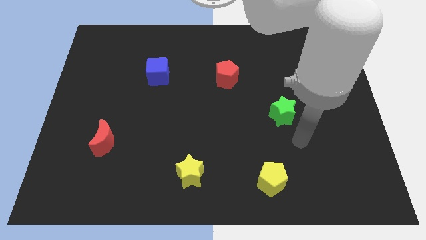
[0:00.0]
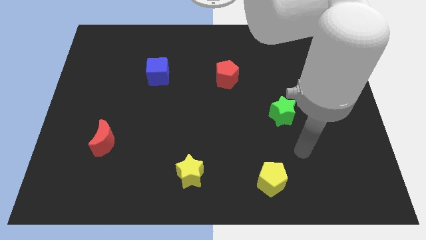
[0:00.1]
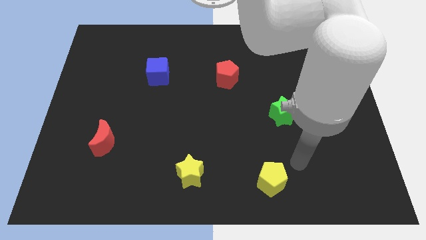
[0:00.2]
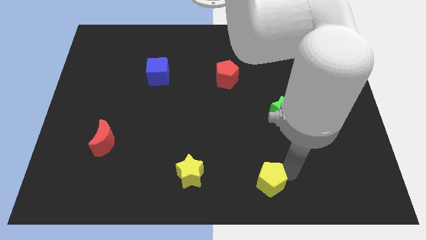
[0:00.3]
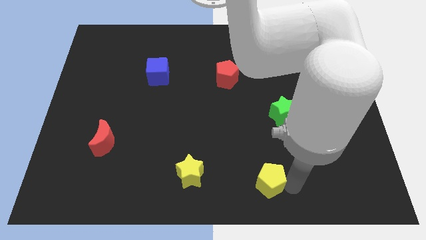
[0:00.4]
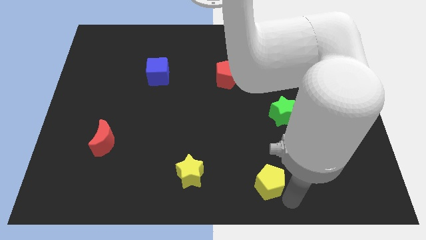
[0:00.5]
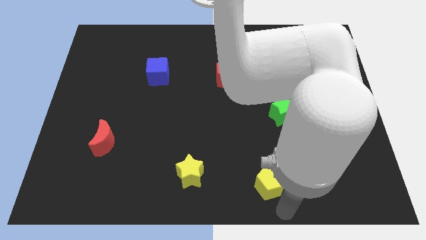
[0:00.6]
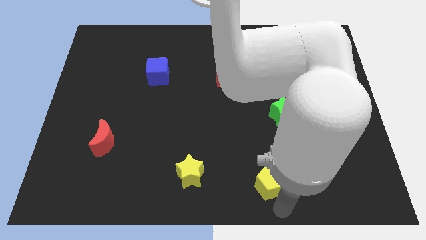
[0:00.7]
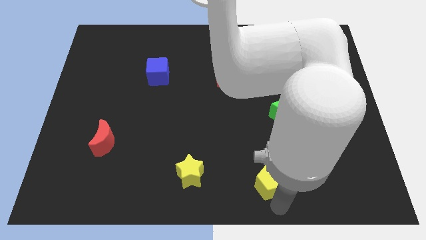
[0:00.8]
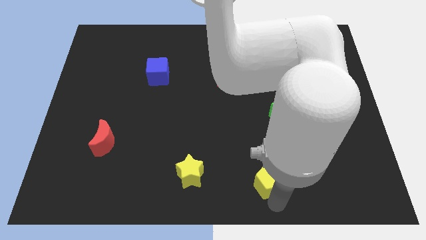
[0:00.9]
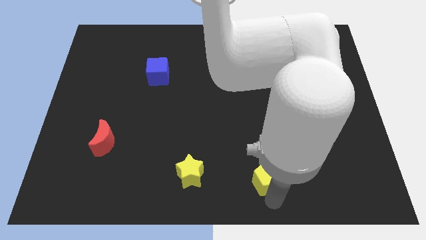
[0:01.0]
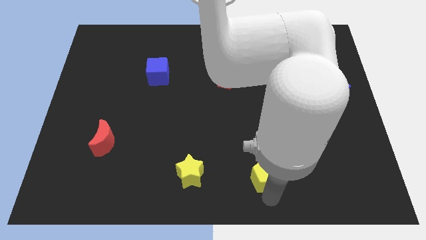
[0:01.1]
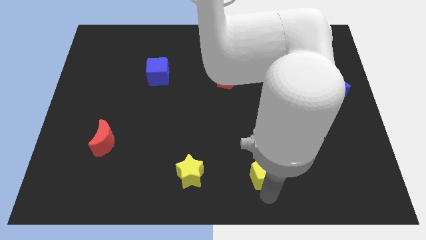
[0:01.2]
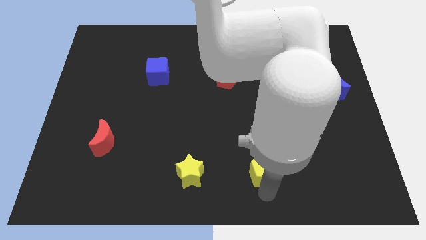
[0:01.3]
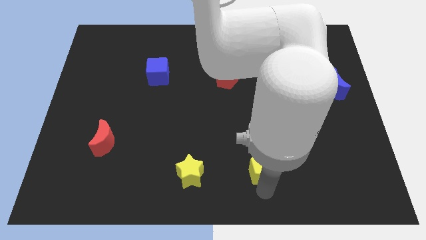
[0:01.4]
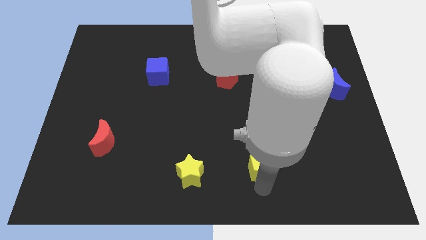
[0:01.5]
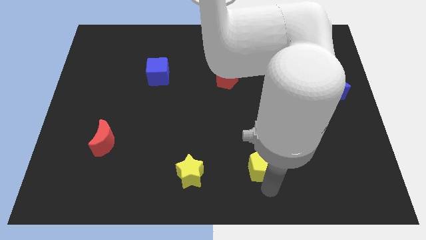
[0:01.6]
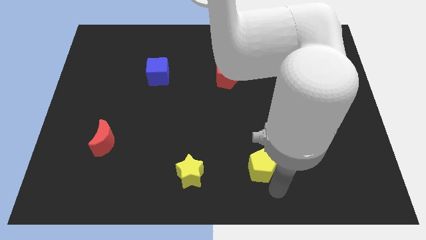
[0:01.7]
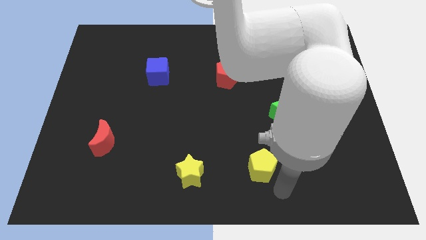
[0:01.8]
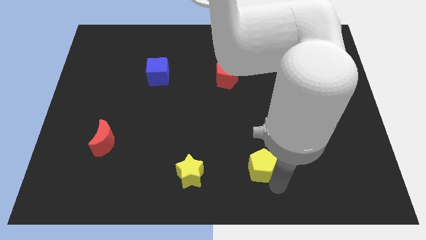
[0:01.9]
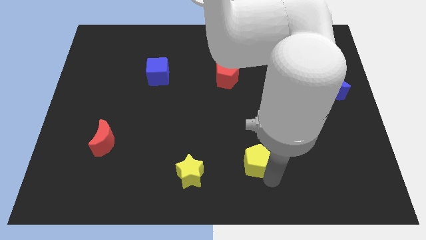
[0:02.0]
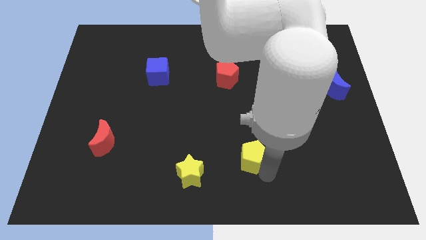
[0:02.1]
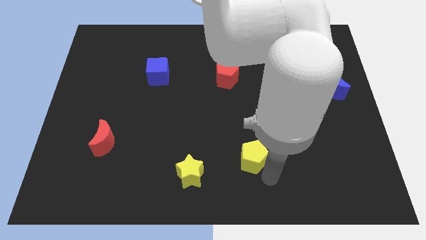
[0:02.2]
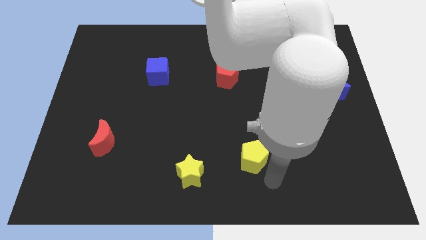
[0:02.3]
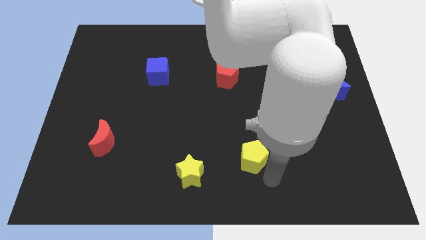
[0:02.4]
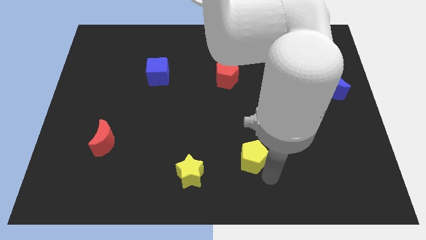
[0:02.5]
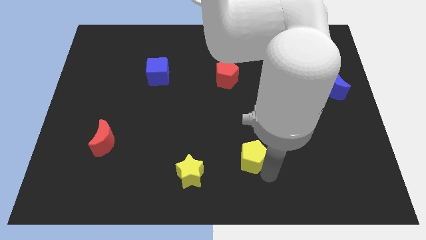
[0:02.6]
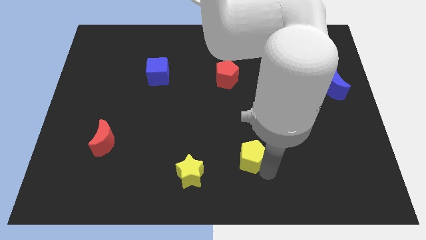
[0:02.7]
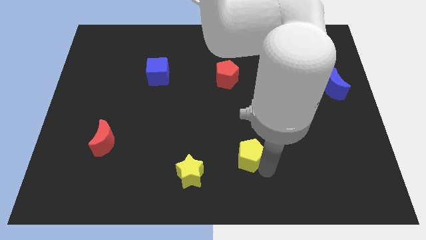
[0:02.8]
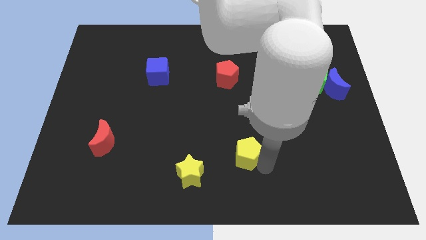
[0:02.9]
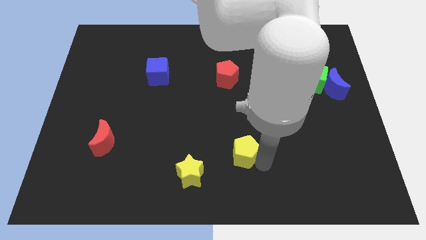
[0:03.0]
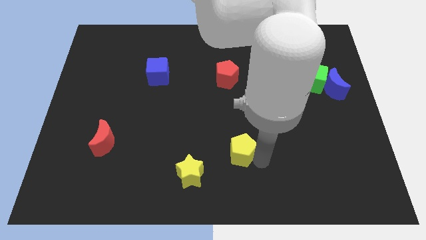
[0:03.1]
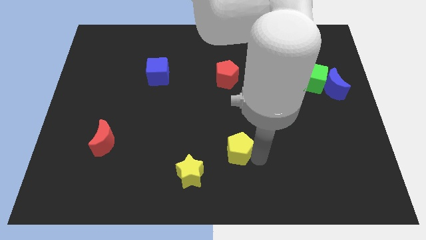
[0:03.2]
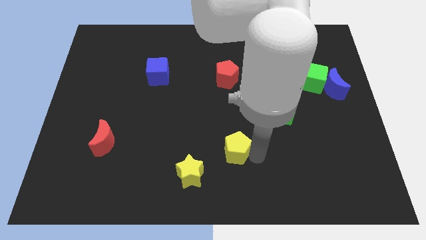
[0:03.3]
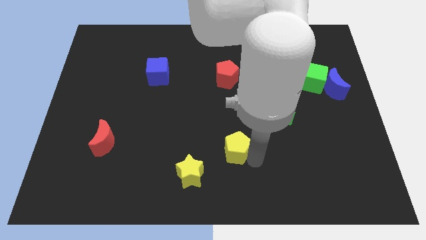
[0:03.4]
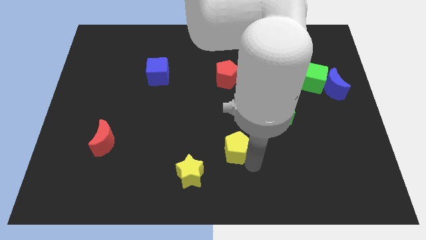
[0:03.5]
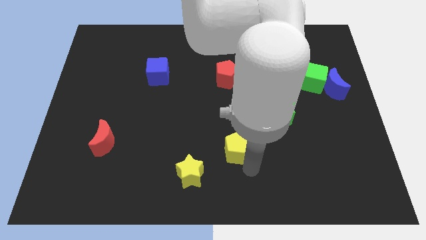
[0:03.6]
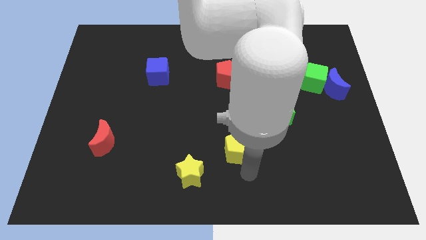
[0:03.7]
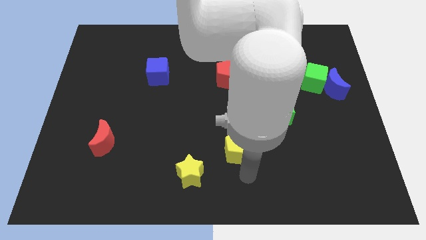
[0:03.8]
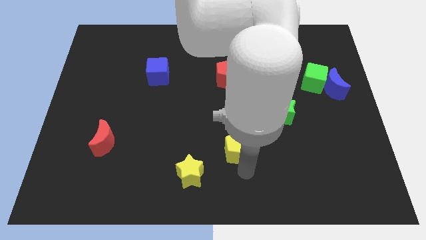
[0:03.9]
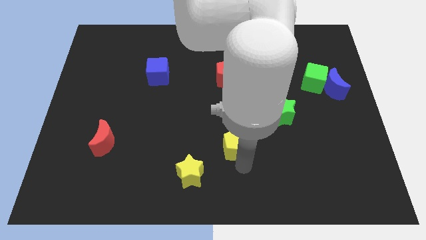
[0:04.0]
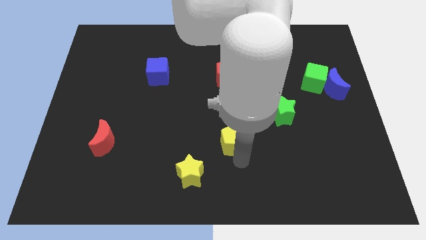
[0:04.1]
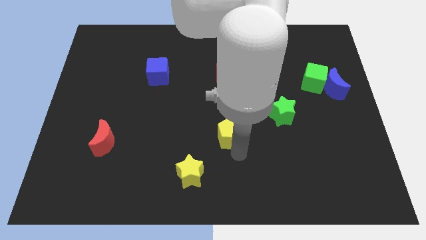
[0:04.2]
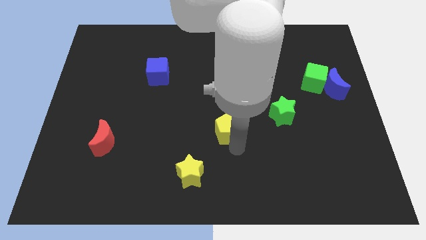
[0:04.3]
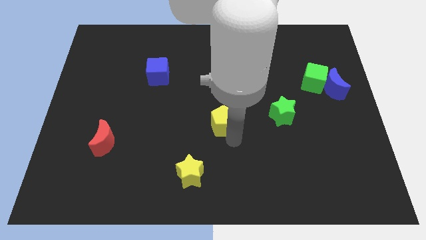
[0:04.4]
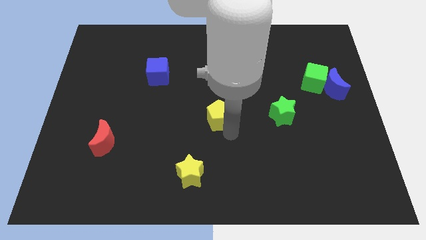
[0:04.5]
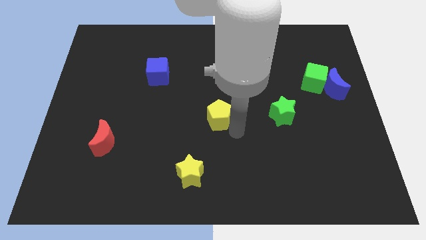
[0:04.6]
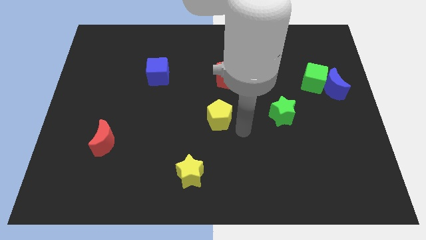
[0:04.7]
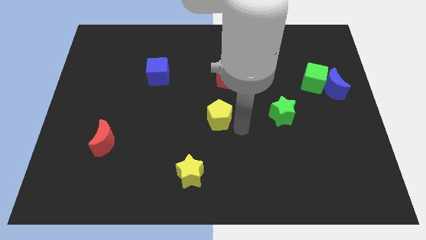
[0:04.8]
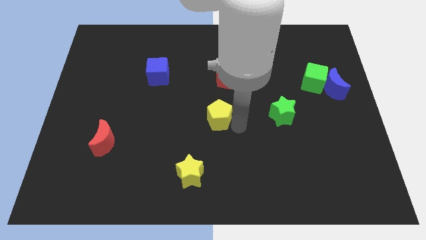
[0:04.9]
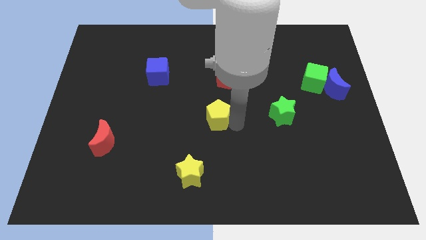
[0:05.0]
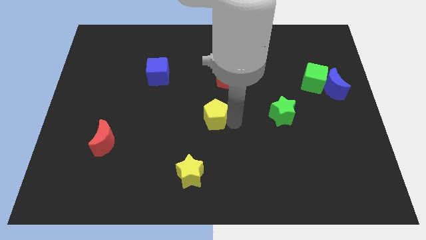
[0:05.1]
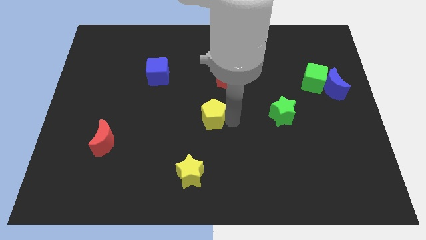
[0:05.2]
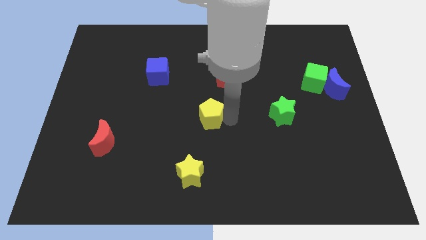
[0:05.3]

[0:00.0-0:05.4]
push the yellow pentagon diagonally up and to the left

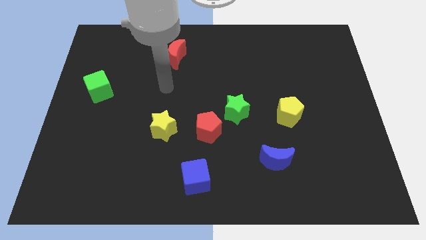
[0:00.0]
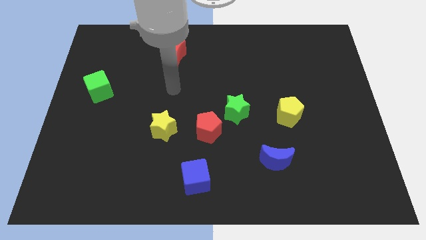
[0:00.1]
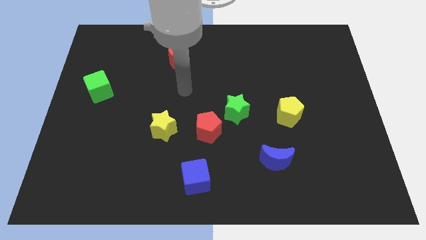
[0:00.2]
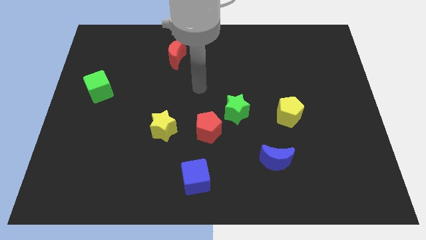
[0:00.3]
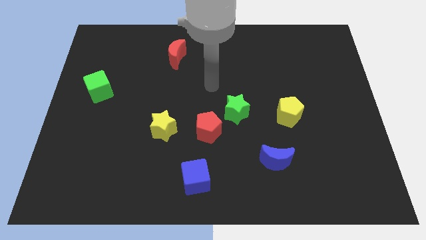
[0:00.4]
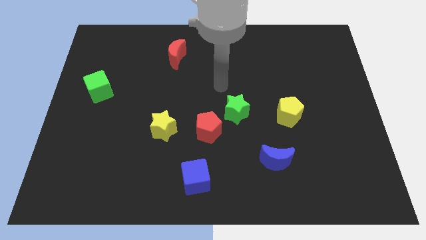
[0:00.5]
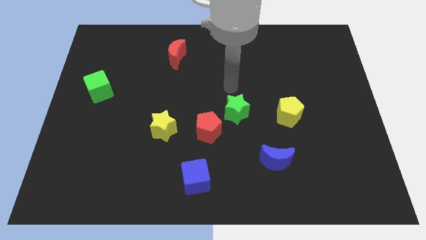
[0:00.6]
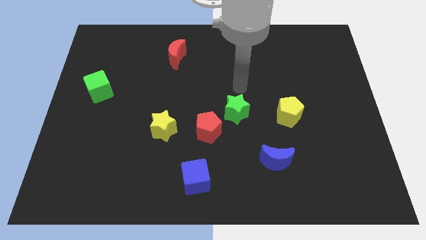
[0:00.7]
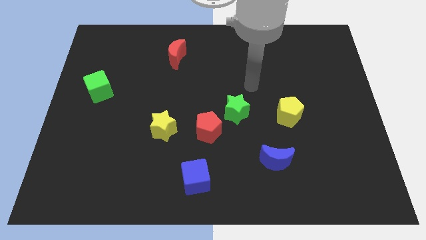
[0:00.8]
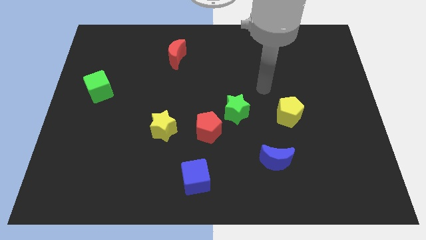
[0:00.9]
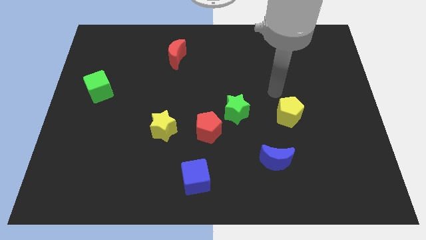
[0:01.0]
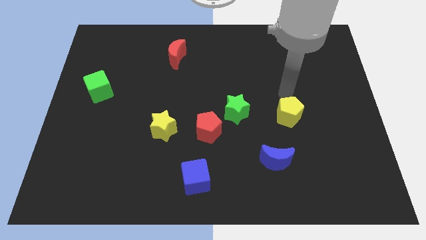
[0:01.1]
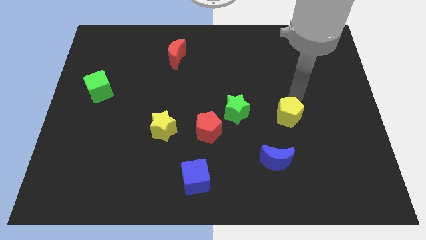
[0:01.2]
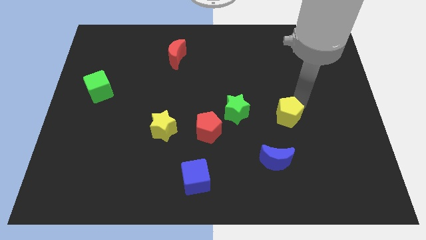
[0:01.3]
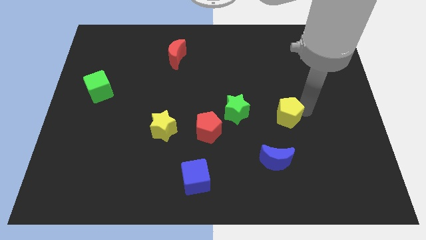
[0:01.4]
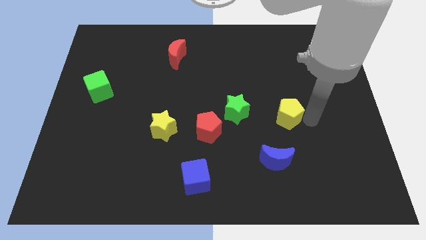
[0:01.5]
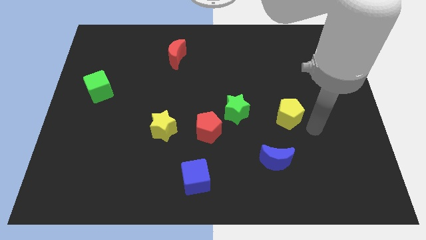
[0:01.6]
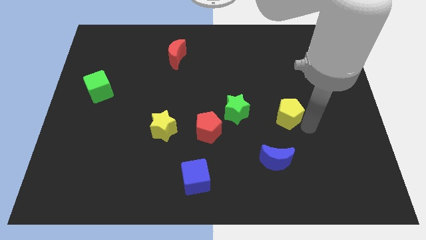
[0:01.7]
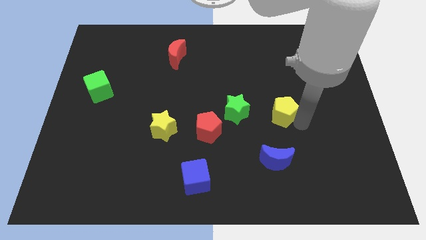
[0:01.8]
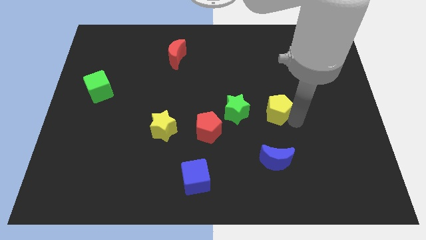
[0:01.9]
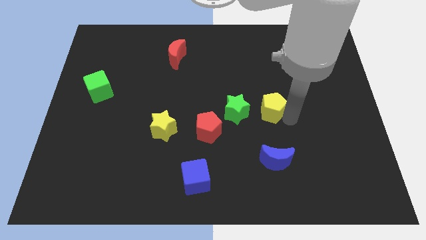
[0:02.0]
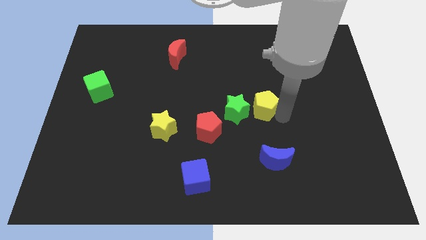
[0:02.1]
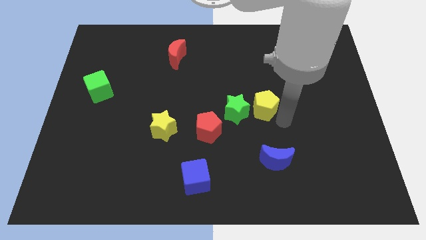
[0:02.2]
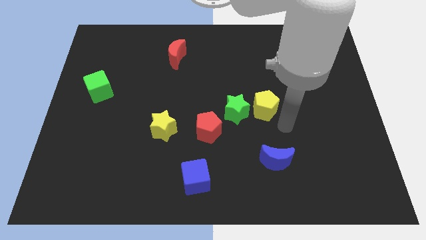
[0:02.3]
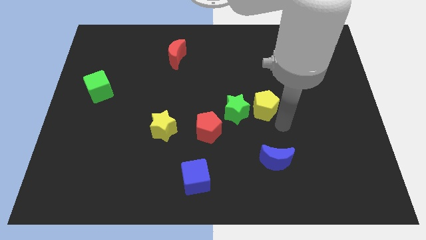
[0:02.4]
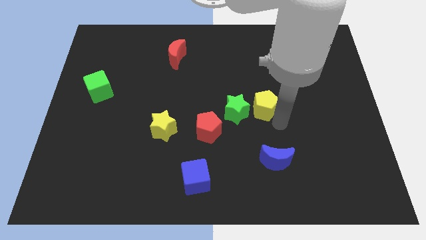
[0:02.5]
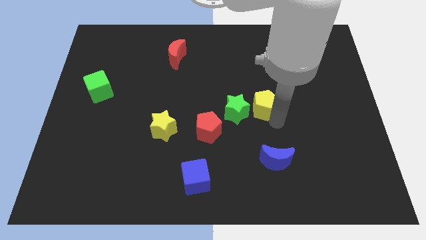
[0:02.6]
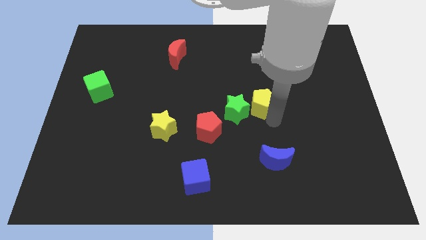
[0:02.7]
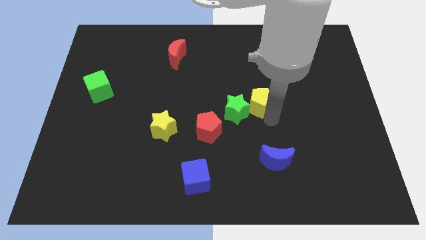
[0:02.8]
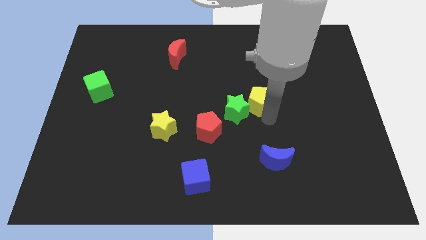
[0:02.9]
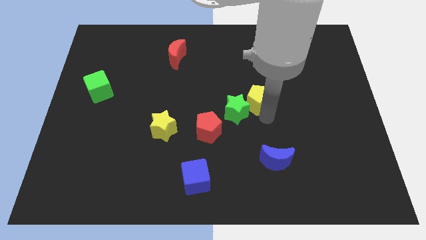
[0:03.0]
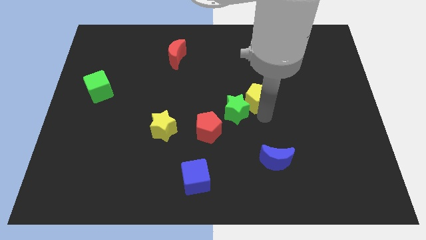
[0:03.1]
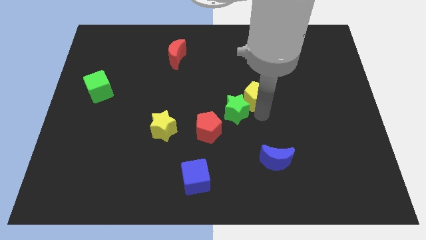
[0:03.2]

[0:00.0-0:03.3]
slightly slide the yellow pentagon left
